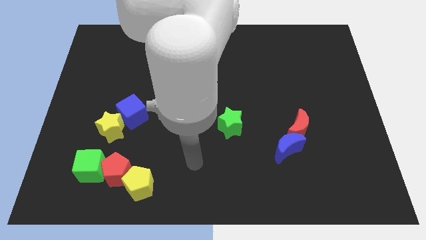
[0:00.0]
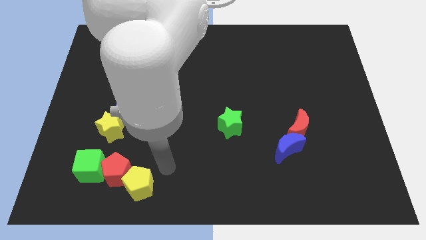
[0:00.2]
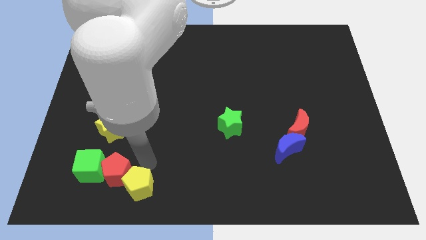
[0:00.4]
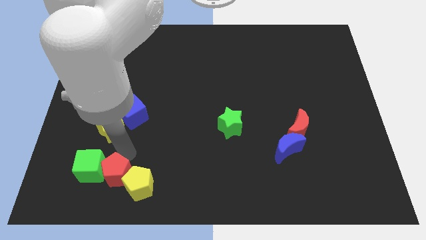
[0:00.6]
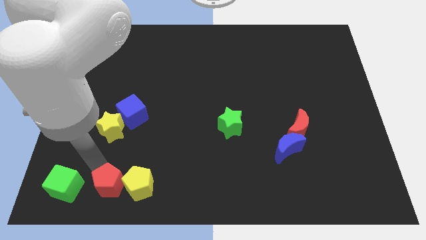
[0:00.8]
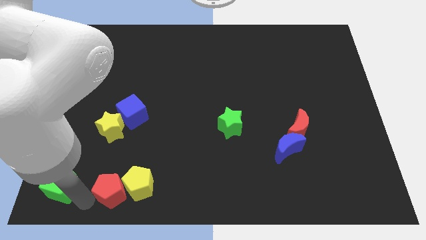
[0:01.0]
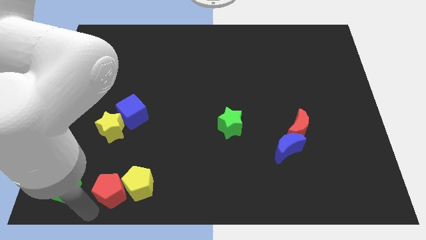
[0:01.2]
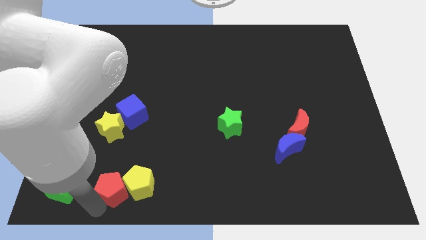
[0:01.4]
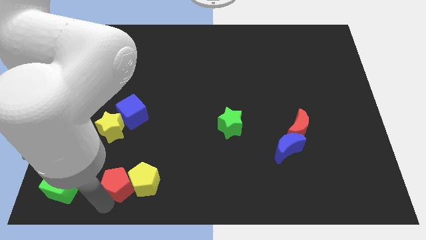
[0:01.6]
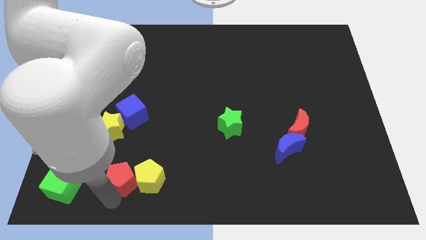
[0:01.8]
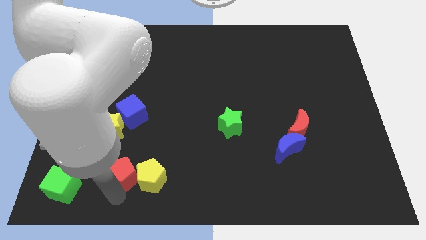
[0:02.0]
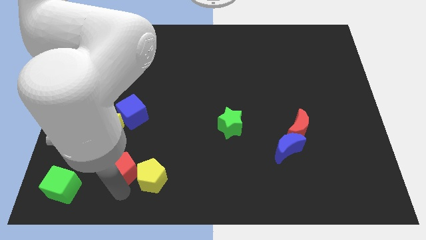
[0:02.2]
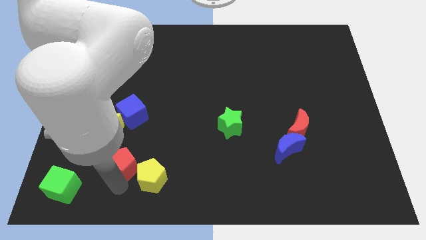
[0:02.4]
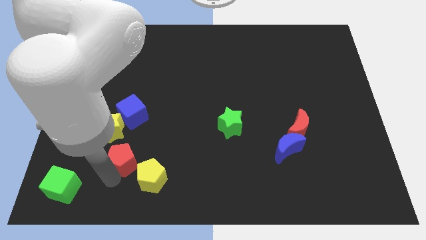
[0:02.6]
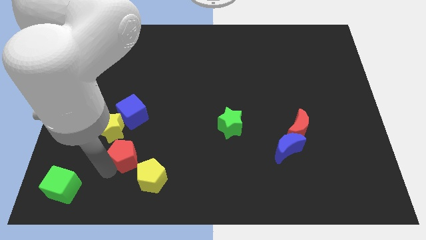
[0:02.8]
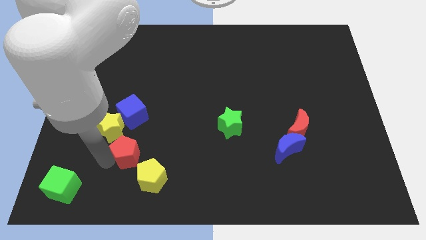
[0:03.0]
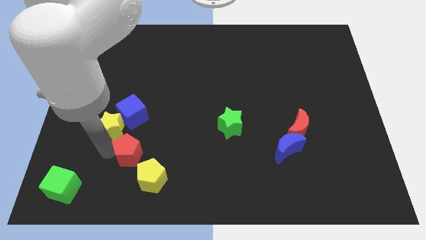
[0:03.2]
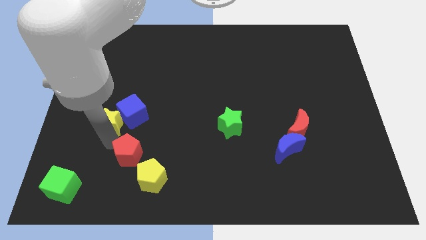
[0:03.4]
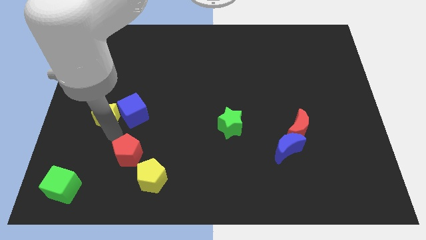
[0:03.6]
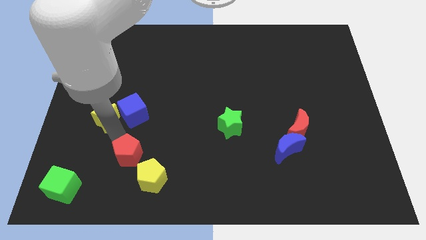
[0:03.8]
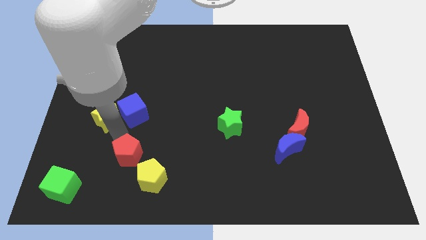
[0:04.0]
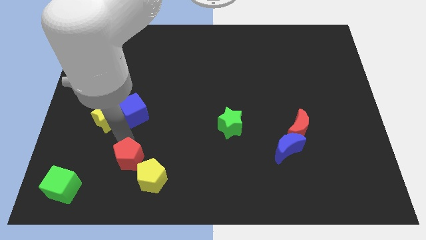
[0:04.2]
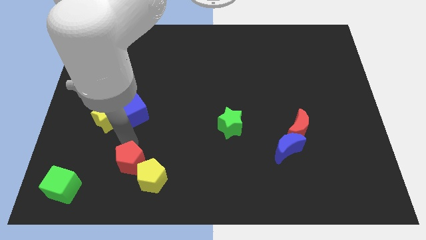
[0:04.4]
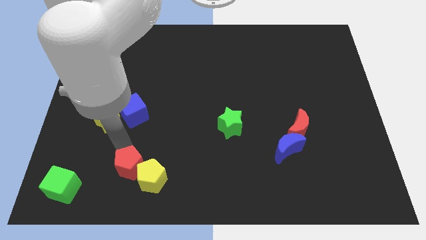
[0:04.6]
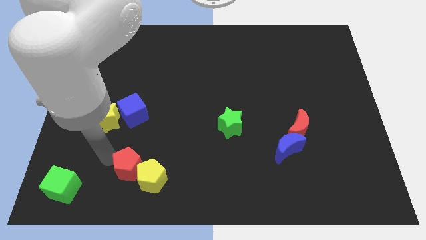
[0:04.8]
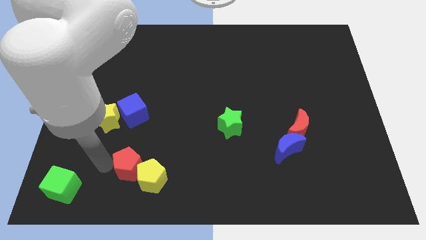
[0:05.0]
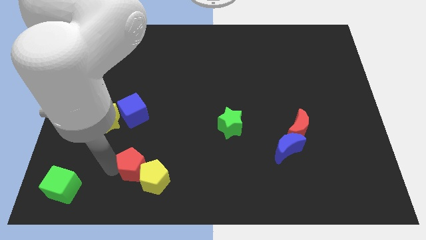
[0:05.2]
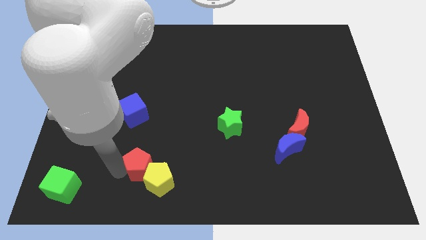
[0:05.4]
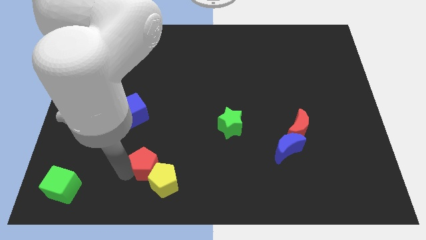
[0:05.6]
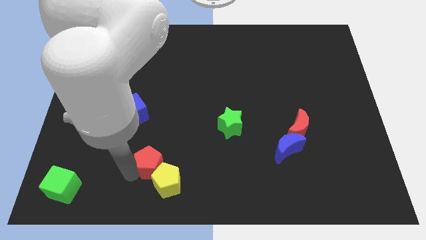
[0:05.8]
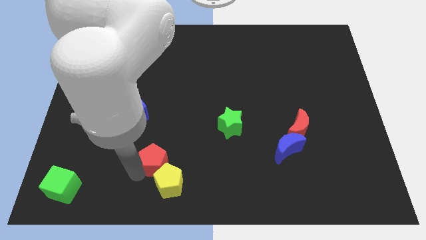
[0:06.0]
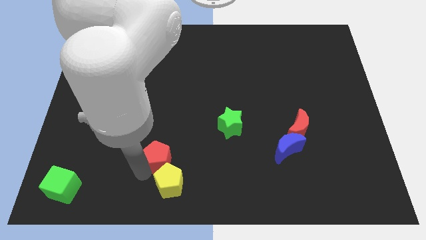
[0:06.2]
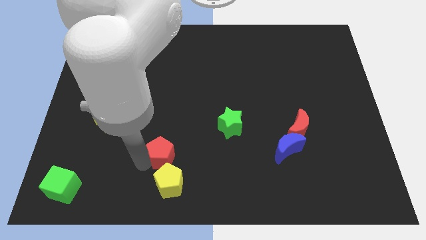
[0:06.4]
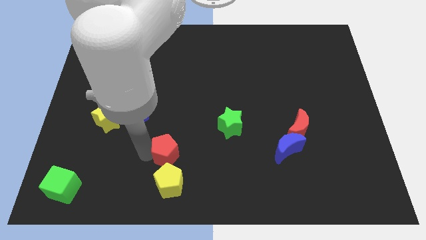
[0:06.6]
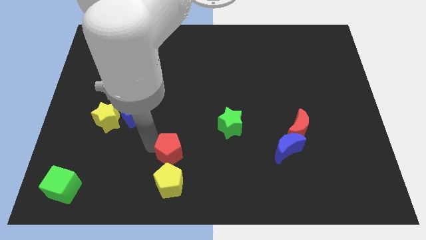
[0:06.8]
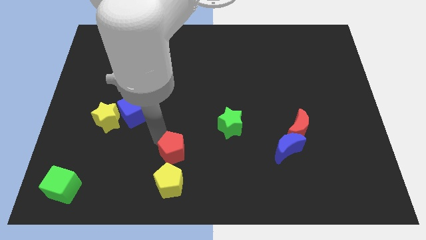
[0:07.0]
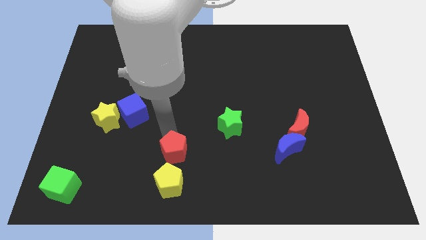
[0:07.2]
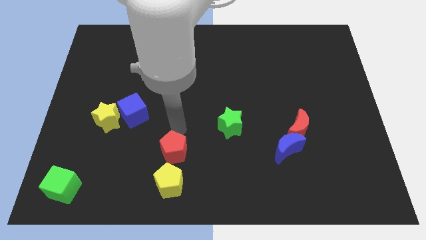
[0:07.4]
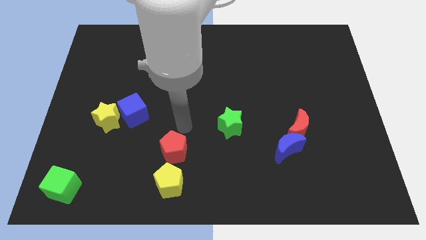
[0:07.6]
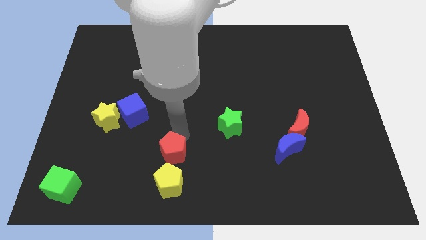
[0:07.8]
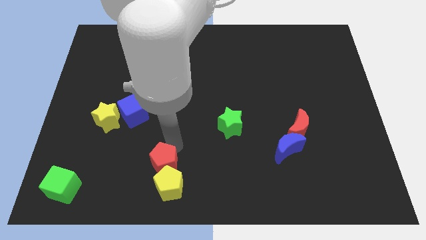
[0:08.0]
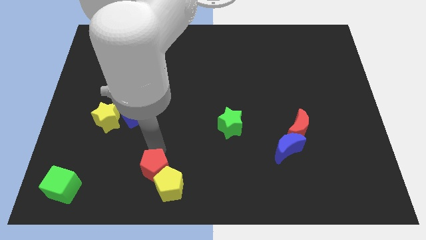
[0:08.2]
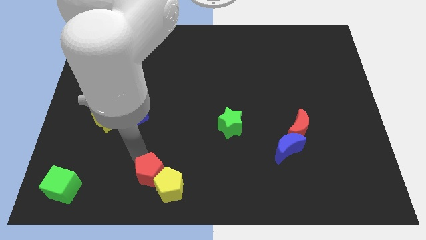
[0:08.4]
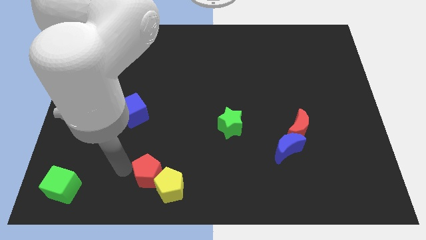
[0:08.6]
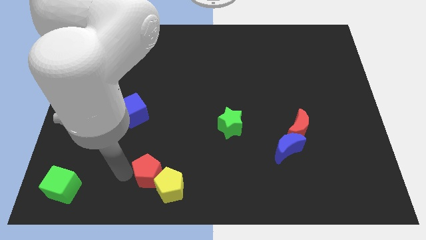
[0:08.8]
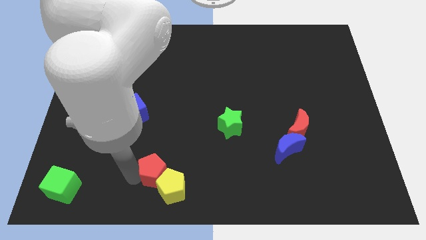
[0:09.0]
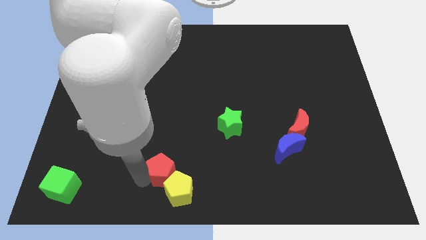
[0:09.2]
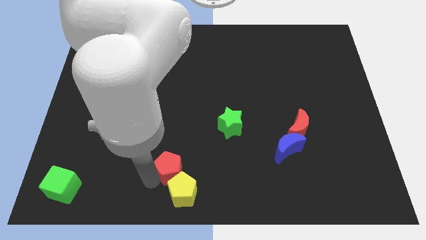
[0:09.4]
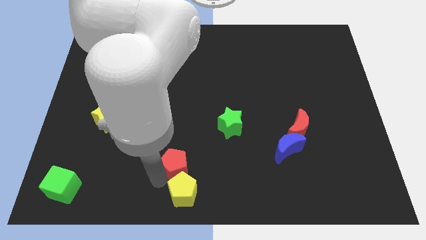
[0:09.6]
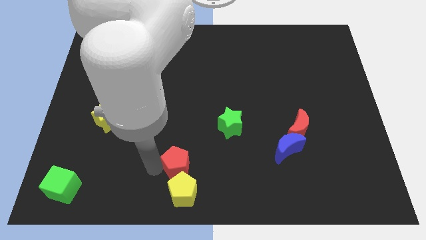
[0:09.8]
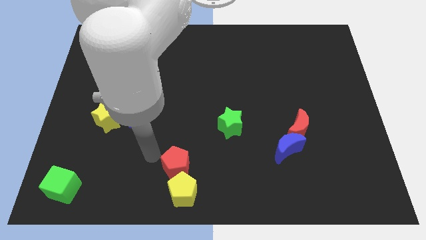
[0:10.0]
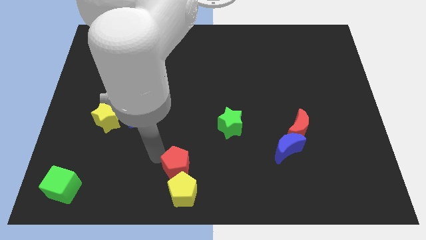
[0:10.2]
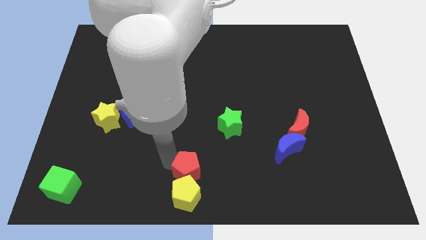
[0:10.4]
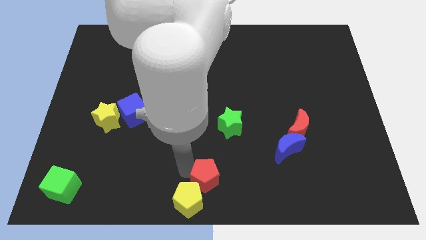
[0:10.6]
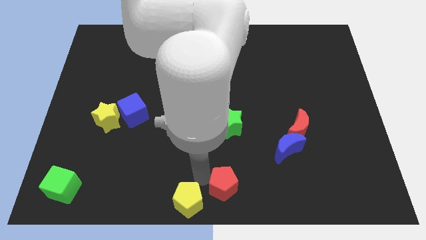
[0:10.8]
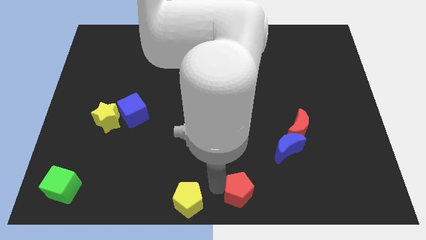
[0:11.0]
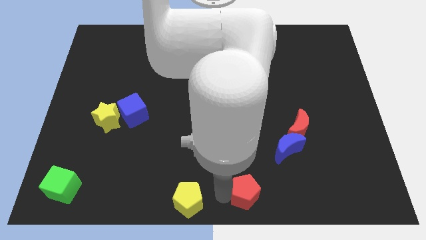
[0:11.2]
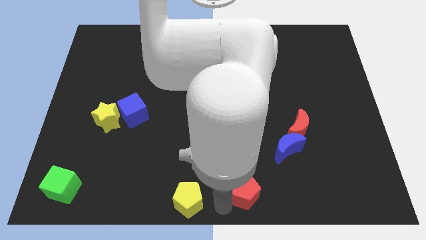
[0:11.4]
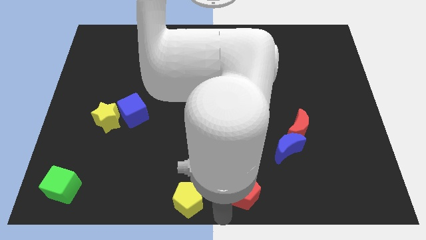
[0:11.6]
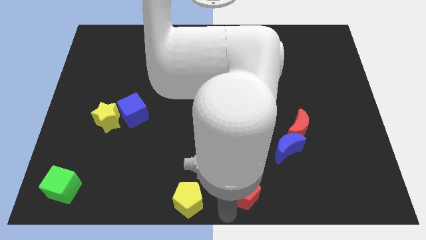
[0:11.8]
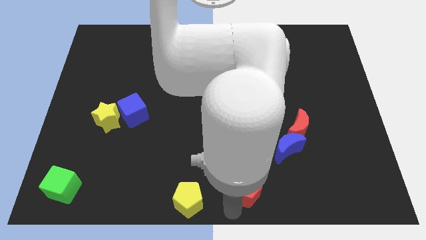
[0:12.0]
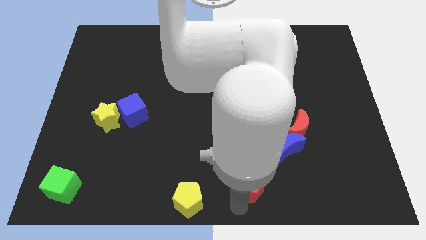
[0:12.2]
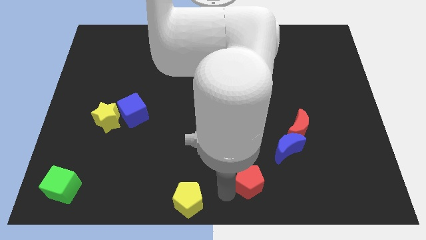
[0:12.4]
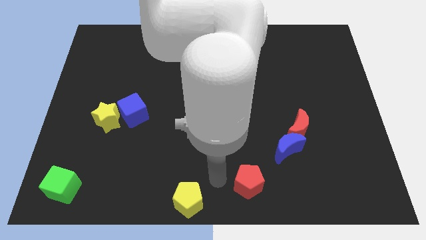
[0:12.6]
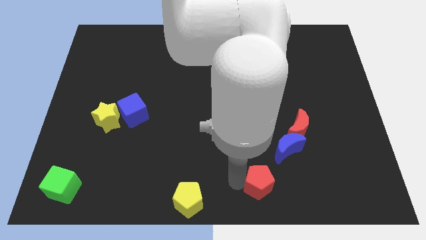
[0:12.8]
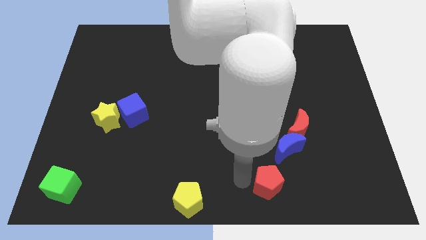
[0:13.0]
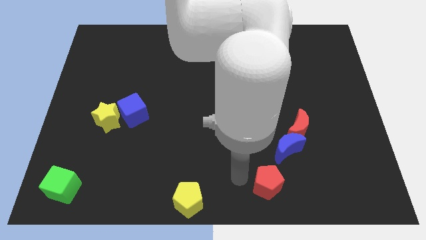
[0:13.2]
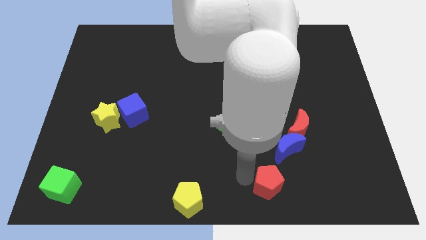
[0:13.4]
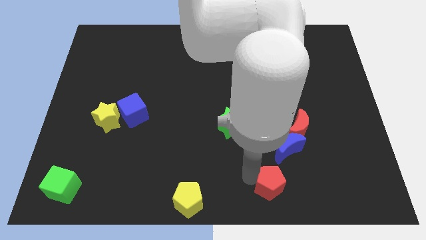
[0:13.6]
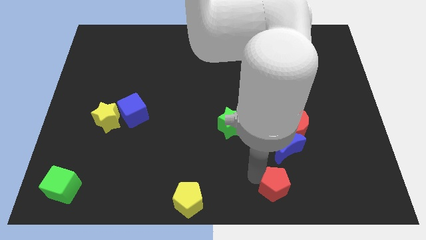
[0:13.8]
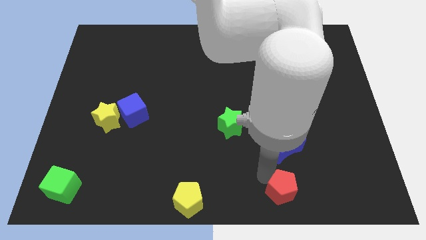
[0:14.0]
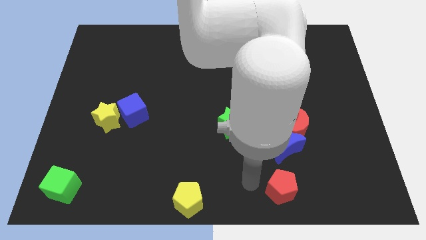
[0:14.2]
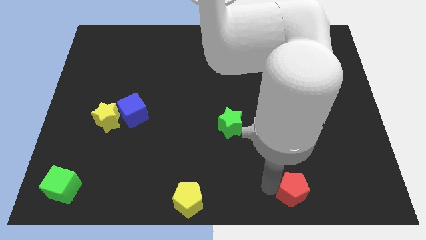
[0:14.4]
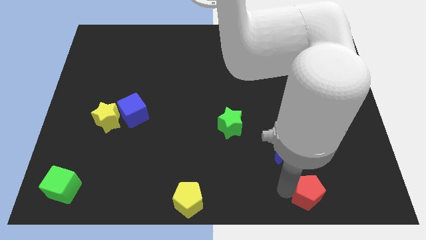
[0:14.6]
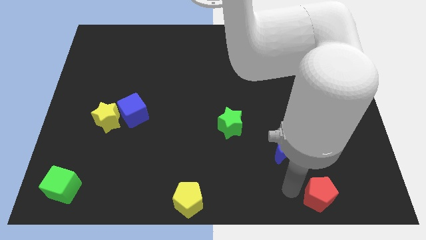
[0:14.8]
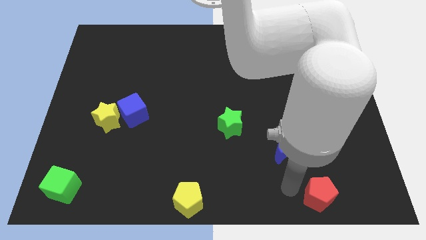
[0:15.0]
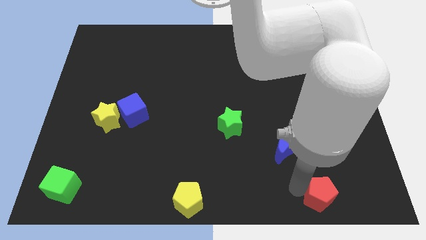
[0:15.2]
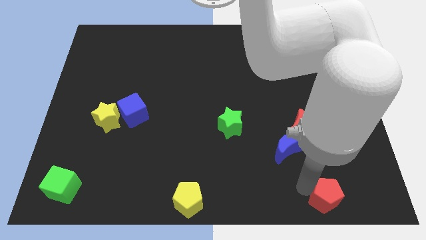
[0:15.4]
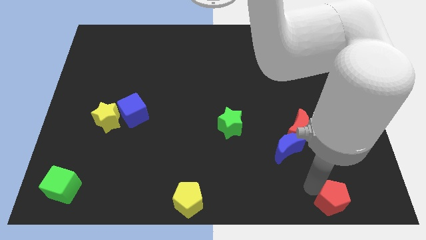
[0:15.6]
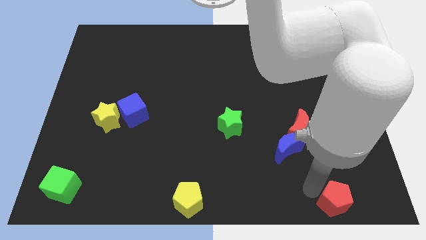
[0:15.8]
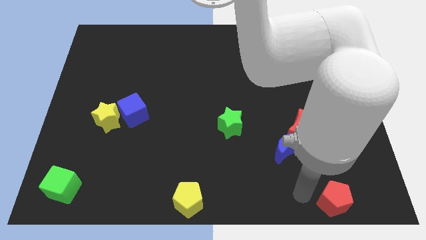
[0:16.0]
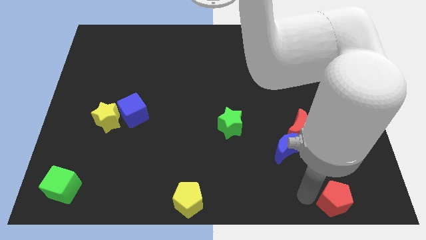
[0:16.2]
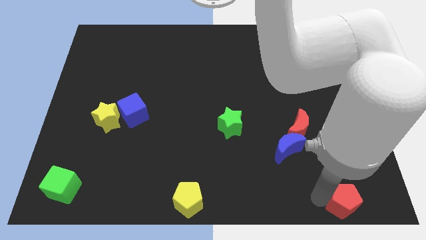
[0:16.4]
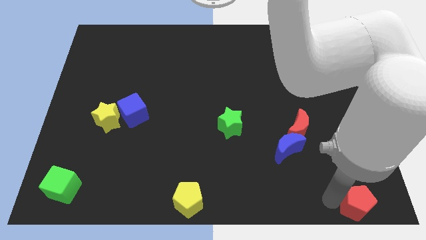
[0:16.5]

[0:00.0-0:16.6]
slide the red pentagon to the bottom right
